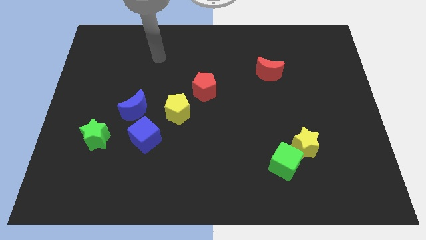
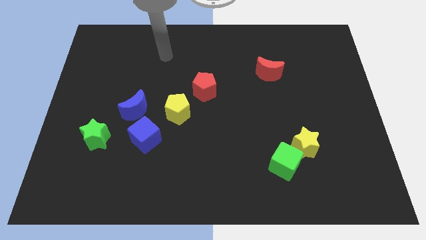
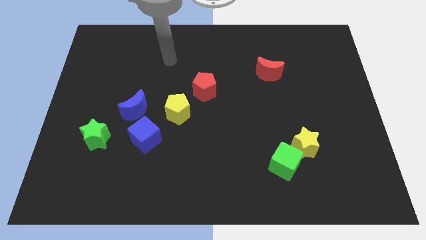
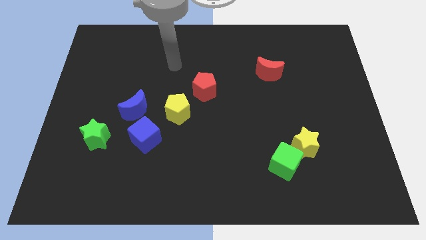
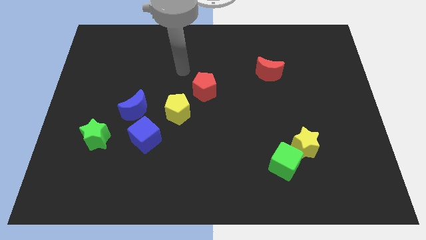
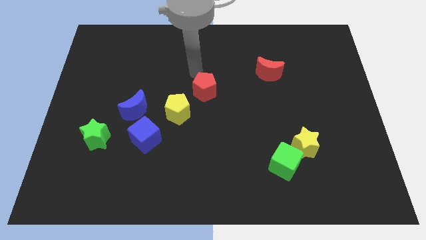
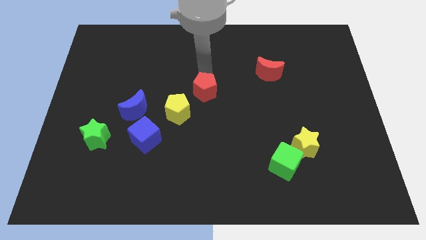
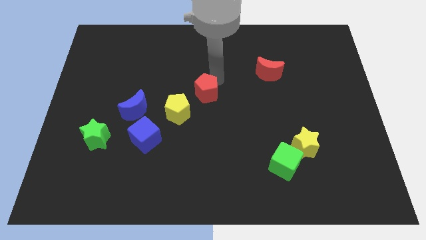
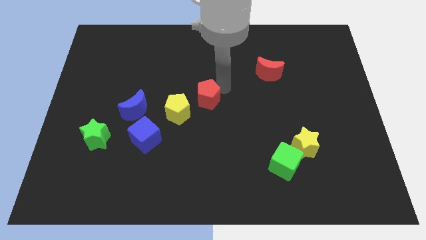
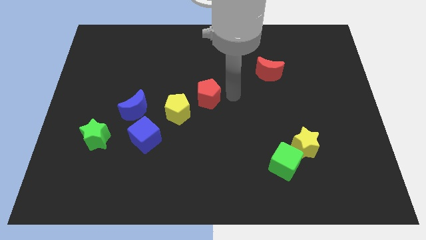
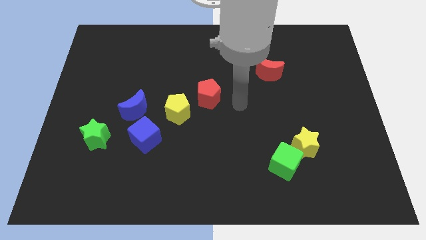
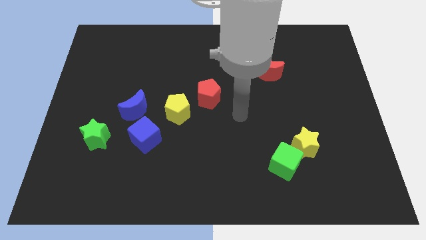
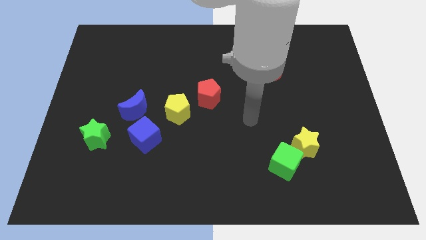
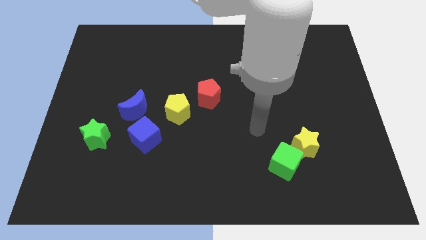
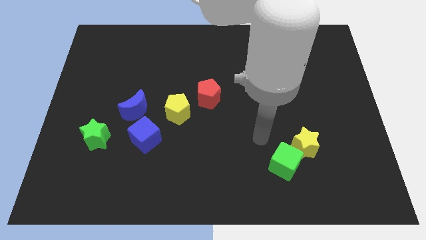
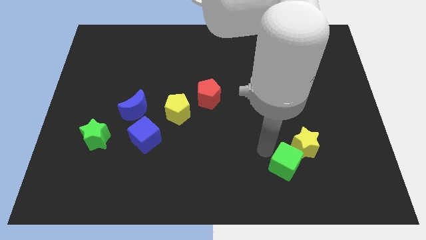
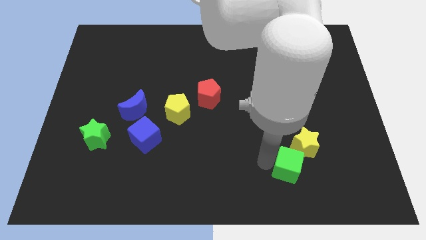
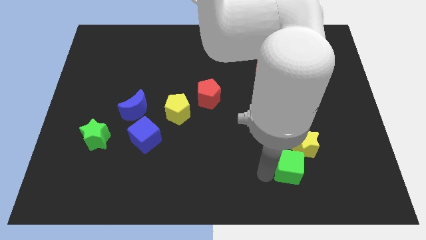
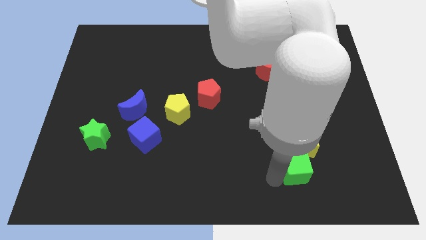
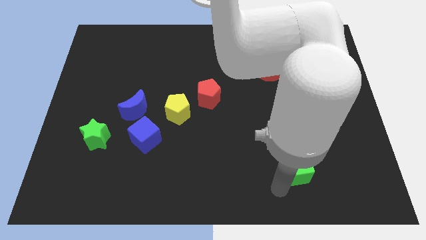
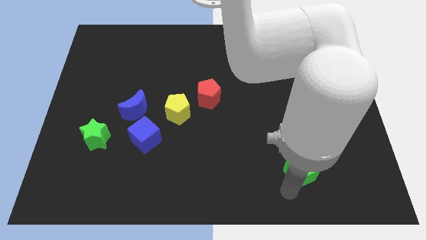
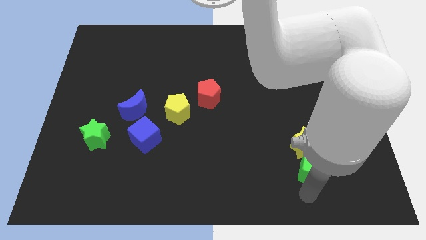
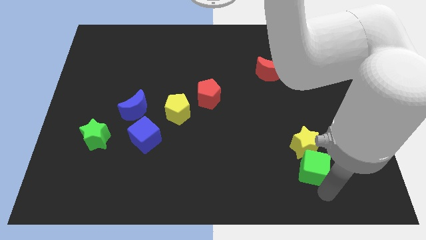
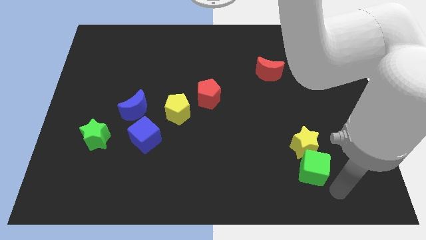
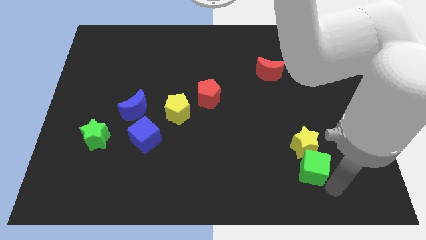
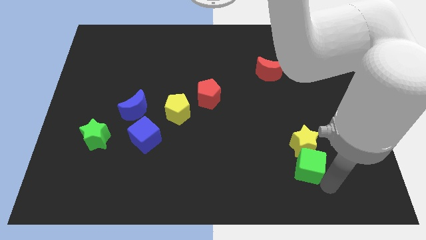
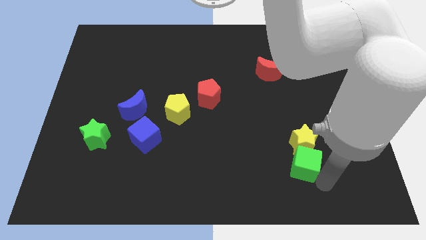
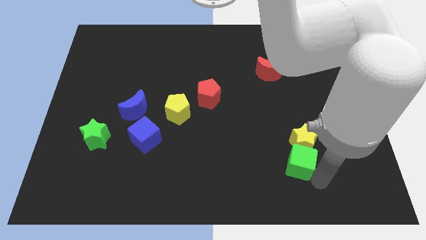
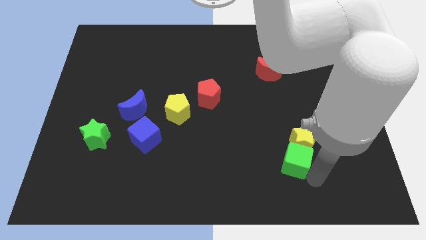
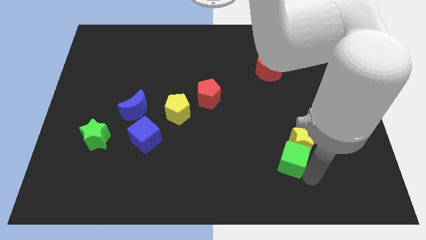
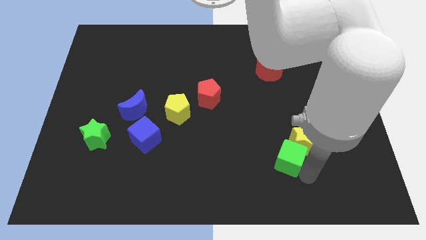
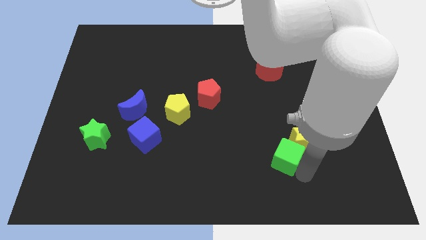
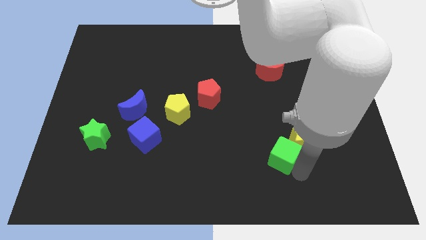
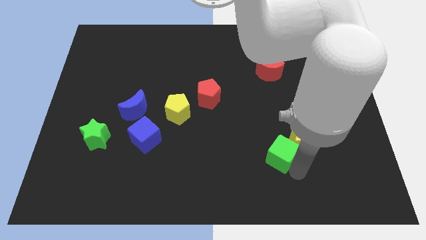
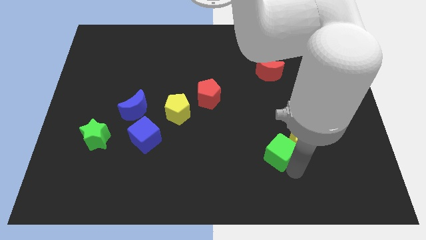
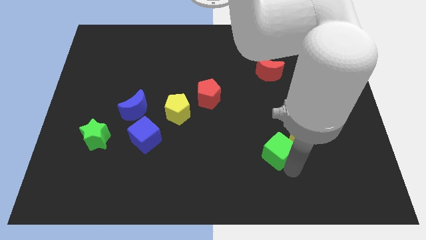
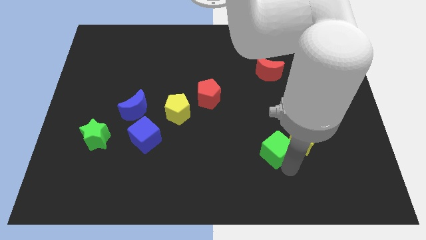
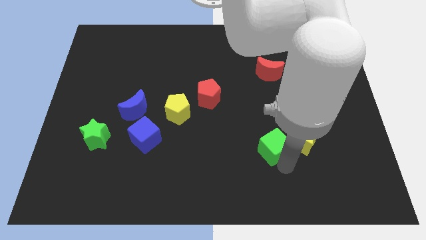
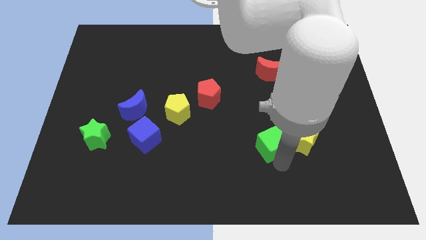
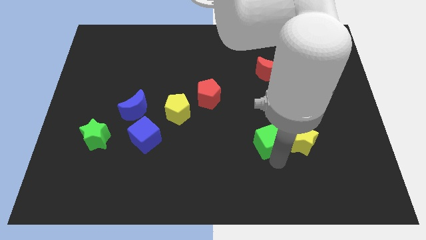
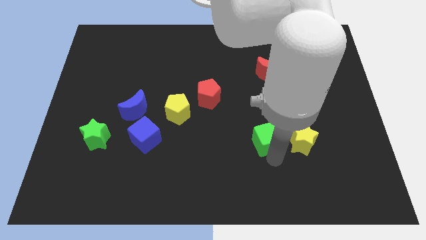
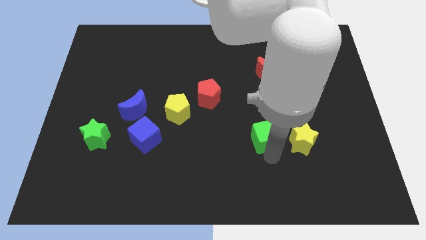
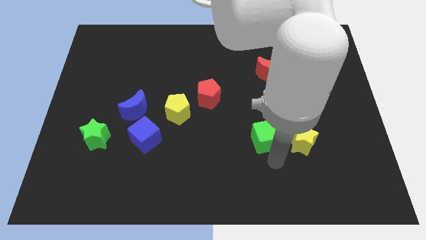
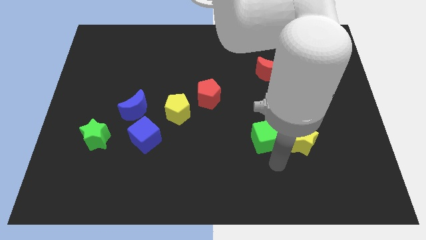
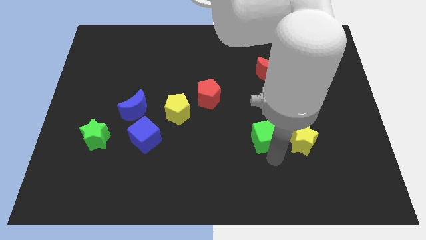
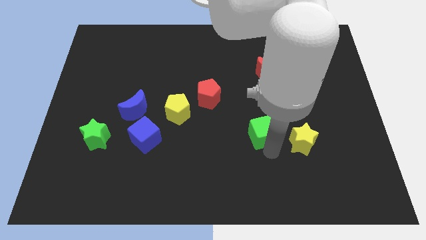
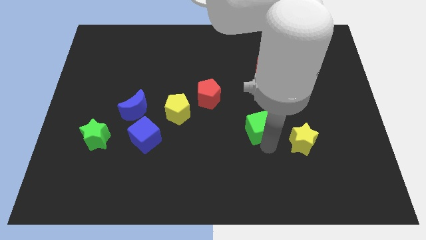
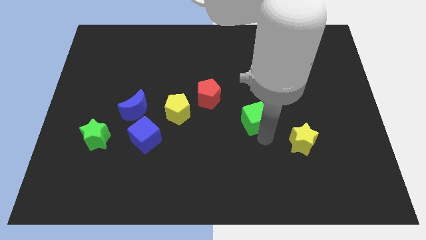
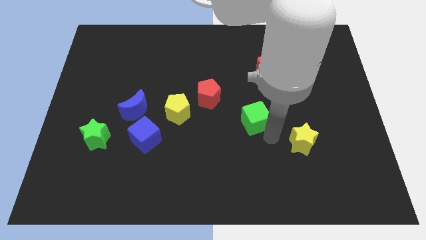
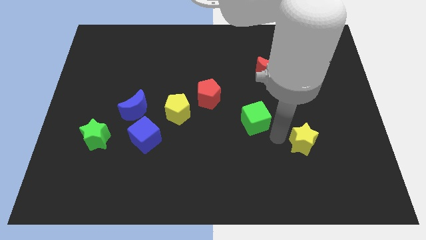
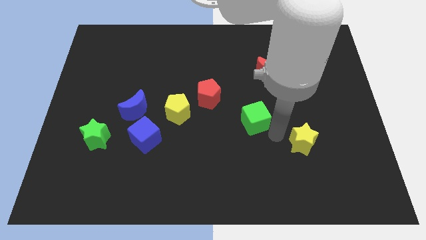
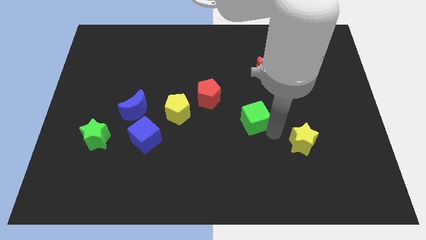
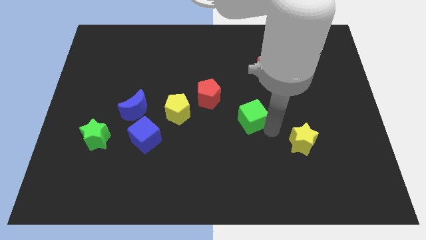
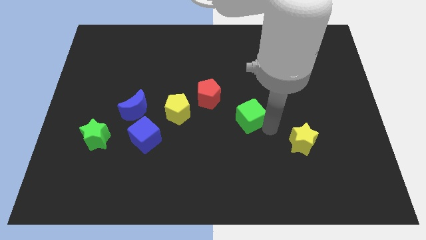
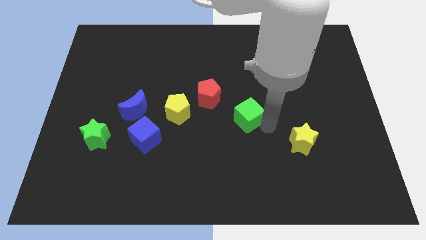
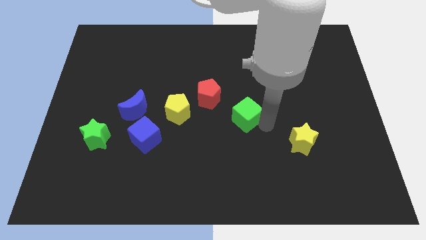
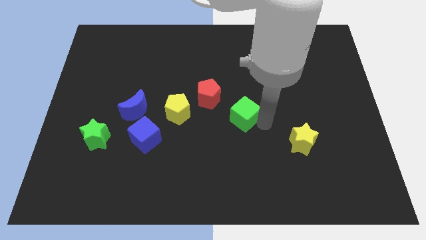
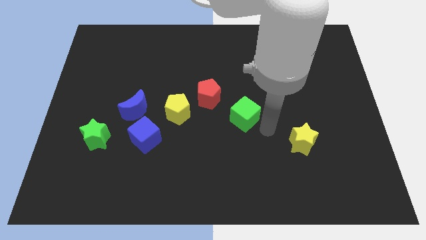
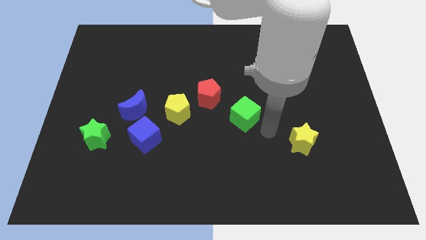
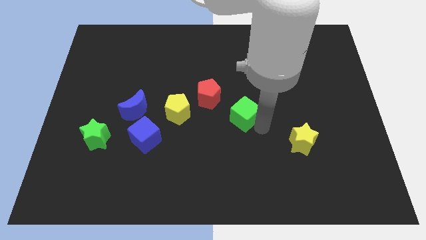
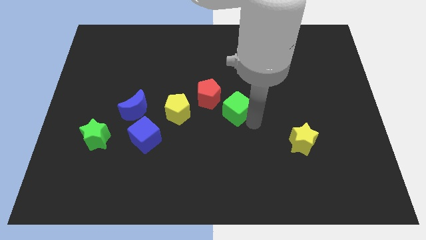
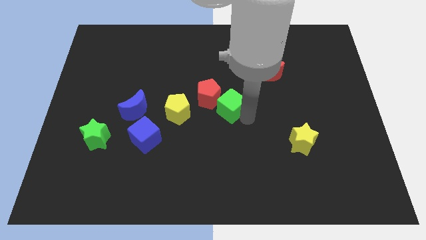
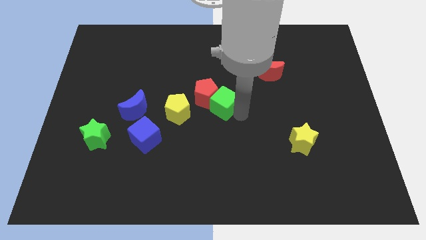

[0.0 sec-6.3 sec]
push the green cube close to the red pentagon
